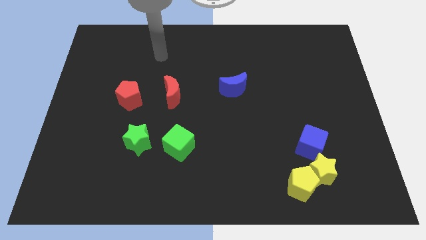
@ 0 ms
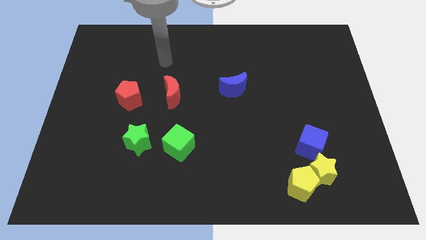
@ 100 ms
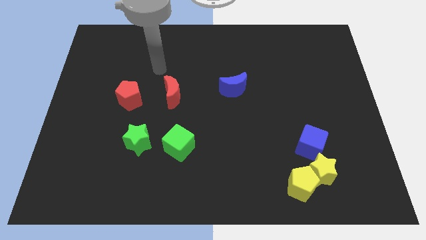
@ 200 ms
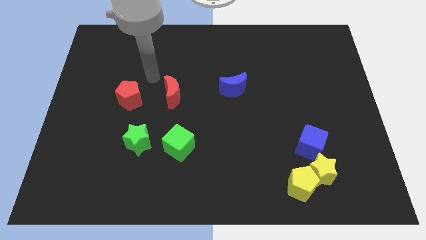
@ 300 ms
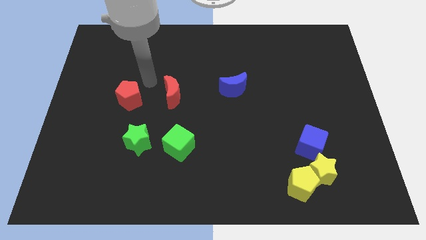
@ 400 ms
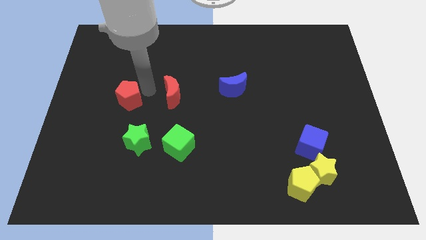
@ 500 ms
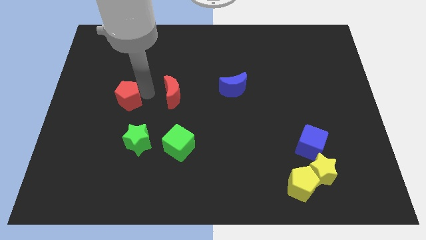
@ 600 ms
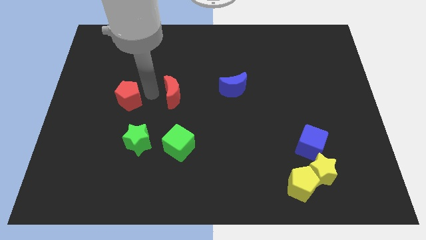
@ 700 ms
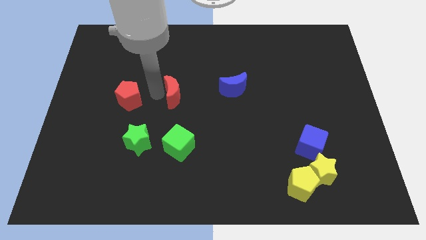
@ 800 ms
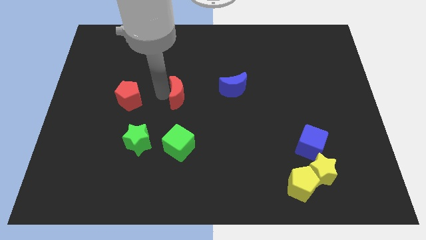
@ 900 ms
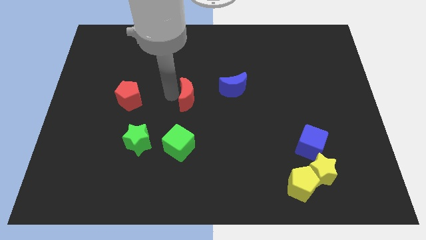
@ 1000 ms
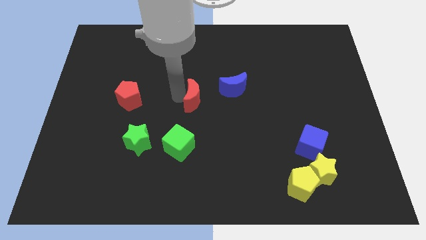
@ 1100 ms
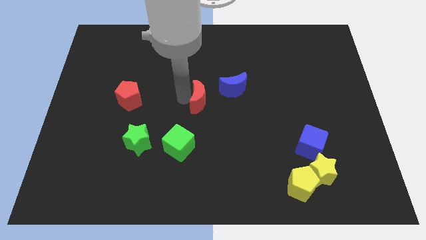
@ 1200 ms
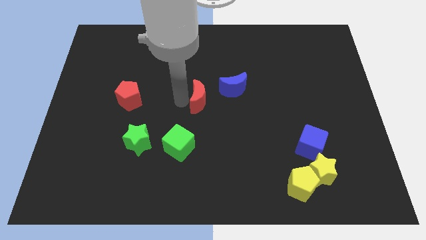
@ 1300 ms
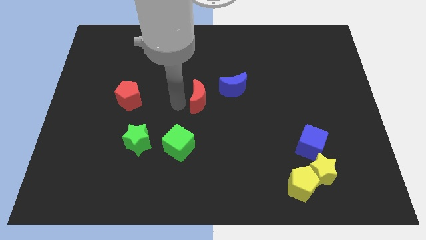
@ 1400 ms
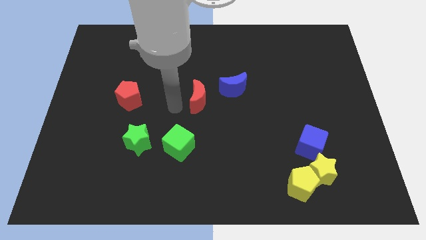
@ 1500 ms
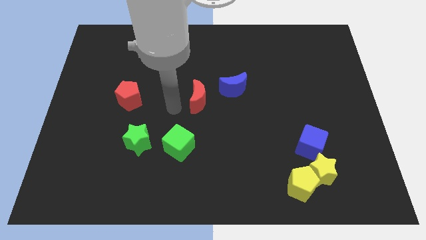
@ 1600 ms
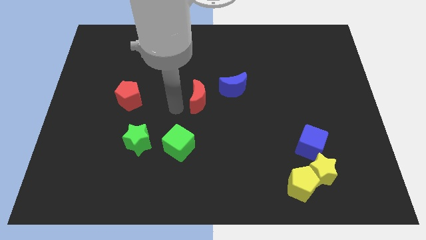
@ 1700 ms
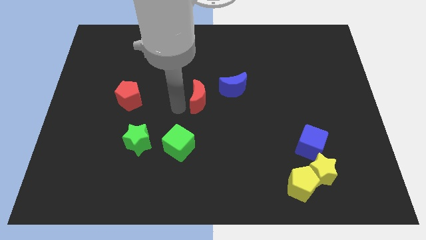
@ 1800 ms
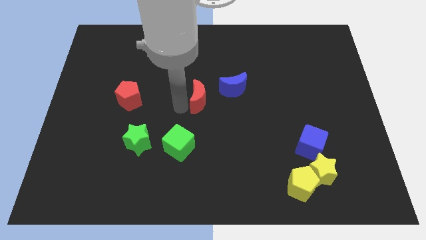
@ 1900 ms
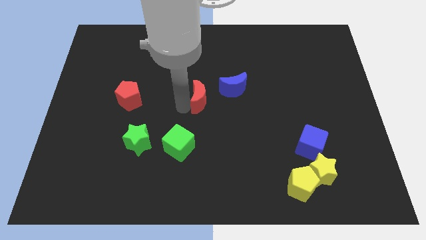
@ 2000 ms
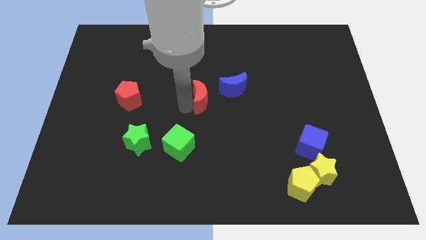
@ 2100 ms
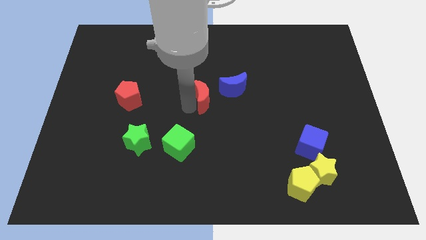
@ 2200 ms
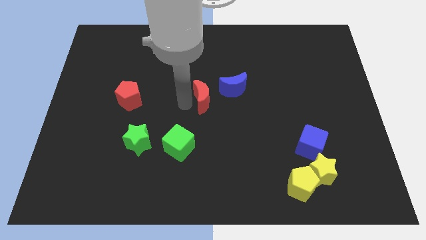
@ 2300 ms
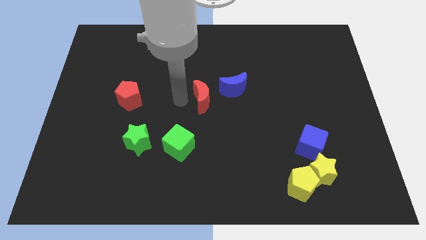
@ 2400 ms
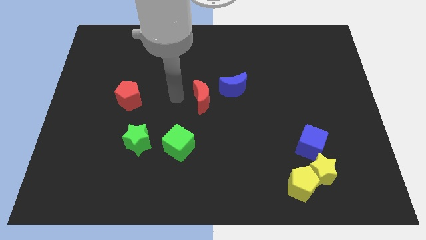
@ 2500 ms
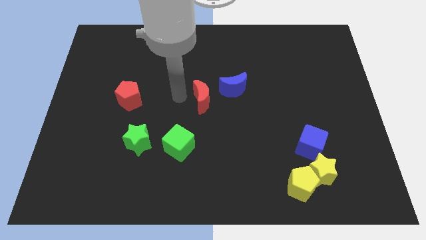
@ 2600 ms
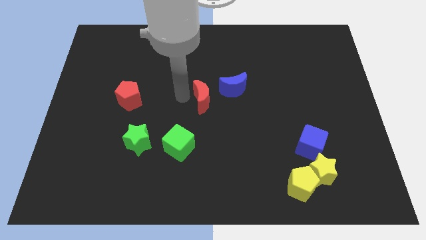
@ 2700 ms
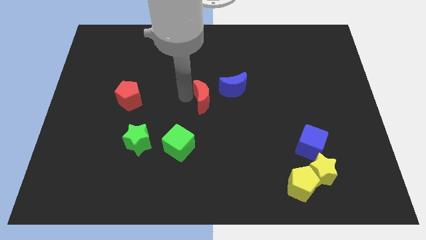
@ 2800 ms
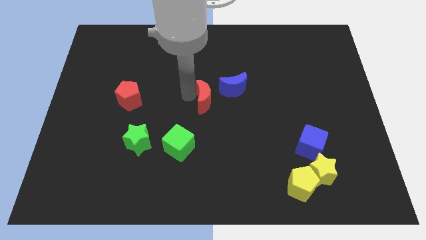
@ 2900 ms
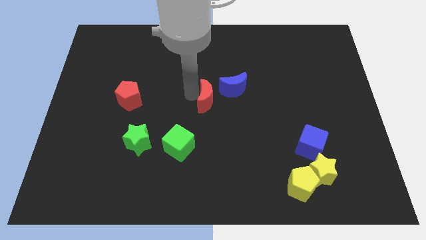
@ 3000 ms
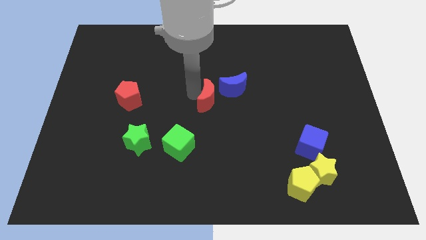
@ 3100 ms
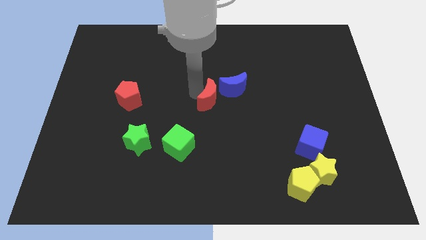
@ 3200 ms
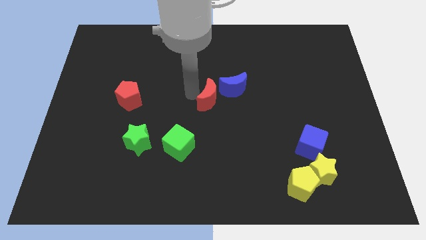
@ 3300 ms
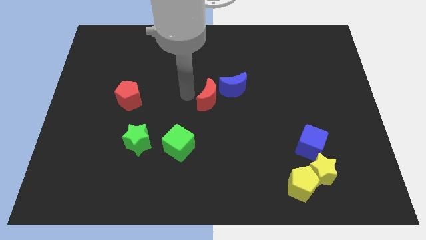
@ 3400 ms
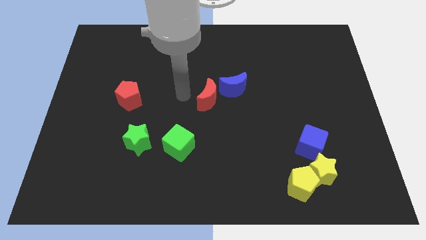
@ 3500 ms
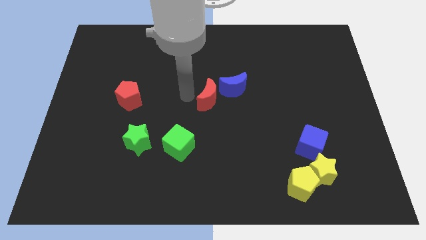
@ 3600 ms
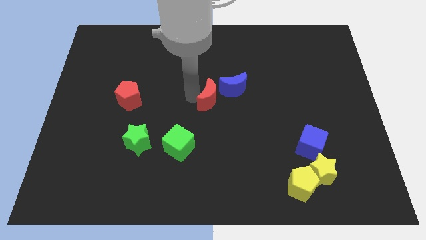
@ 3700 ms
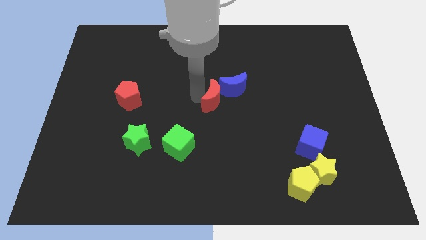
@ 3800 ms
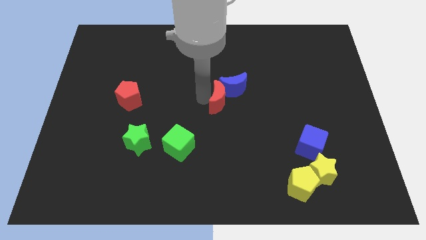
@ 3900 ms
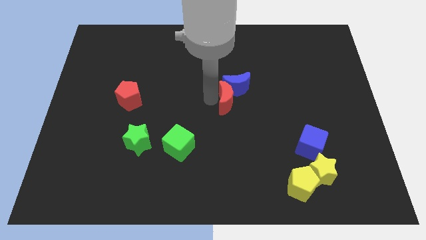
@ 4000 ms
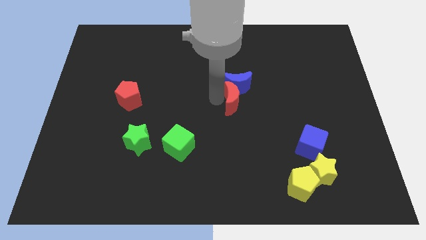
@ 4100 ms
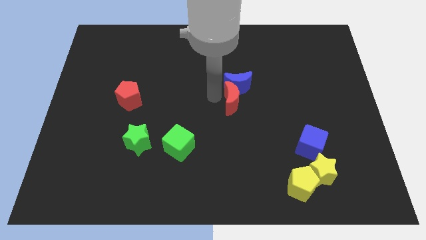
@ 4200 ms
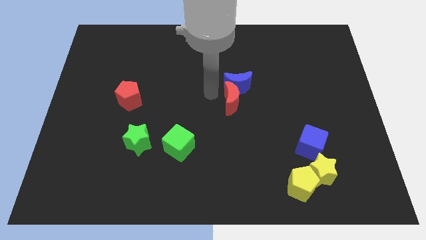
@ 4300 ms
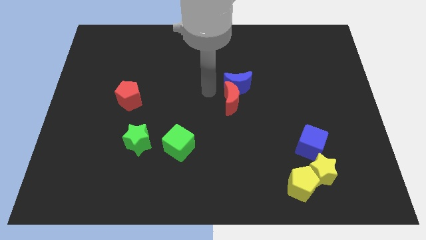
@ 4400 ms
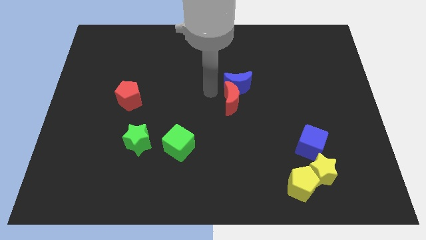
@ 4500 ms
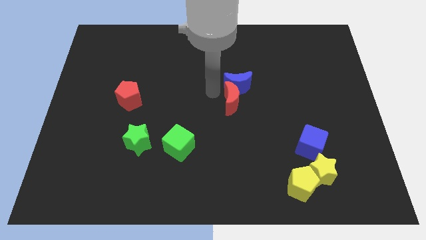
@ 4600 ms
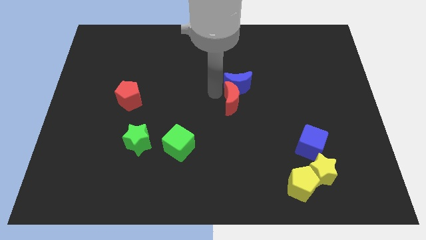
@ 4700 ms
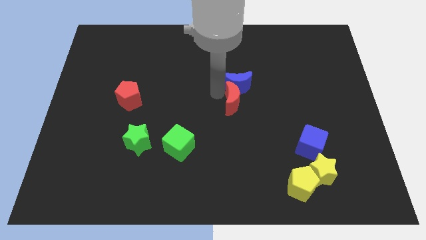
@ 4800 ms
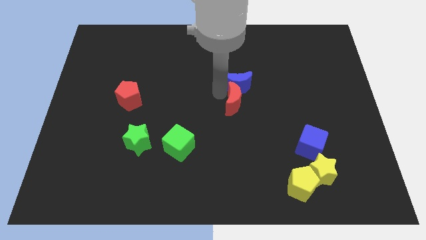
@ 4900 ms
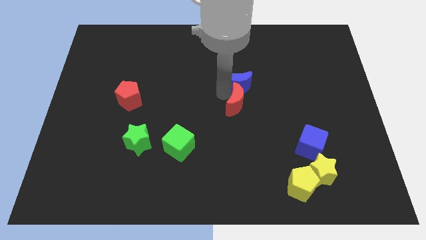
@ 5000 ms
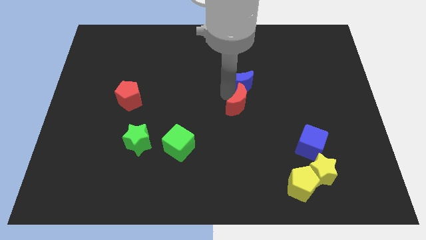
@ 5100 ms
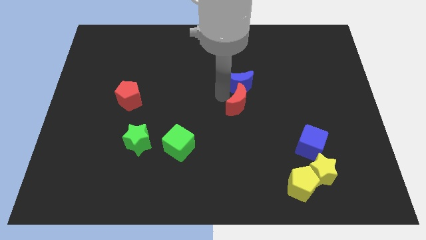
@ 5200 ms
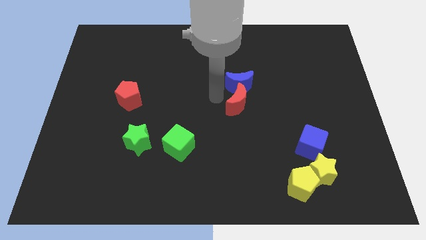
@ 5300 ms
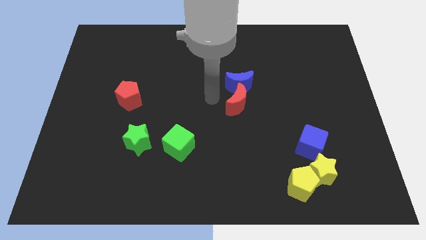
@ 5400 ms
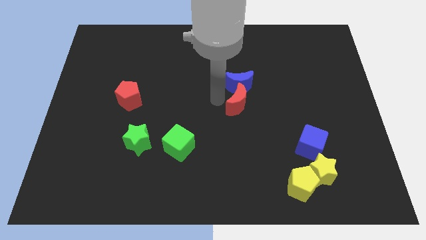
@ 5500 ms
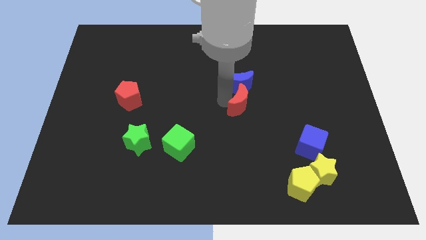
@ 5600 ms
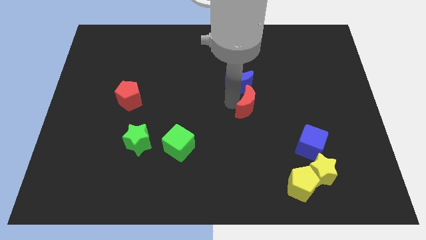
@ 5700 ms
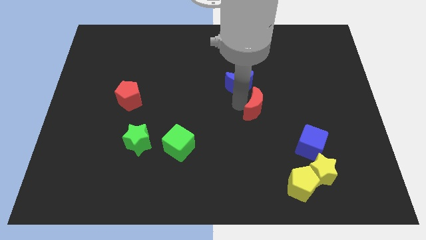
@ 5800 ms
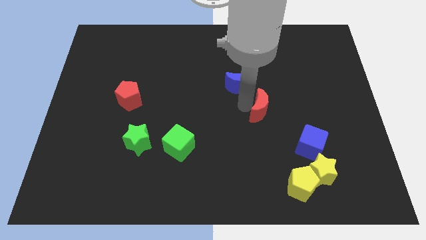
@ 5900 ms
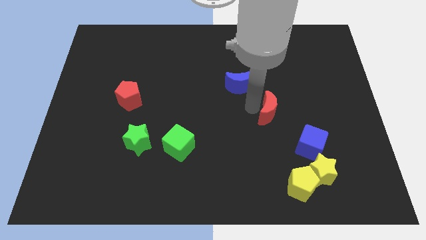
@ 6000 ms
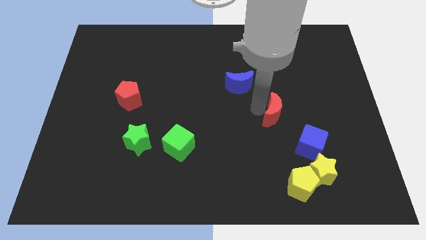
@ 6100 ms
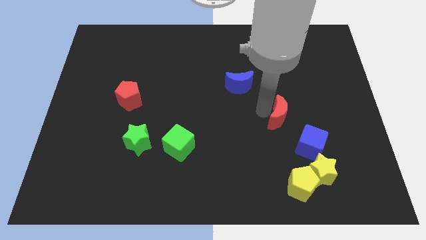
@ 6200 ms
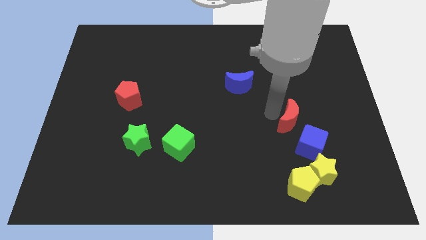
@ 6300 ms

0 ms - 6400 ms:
put the red moon to the top of the yellow star

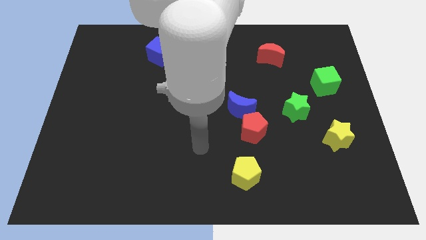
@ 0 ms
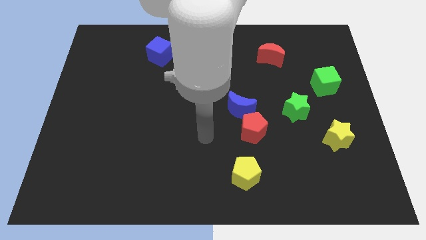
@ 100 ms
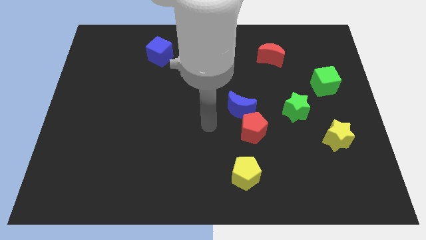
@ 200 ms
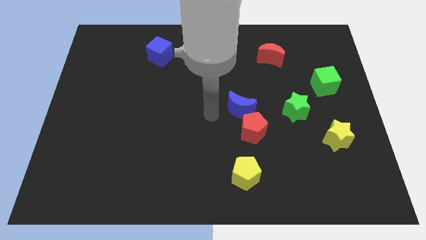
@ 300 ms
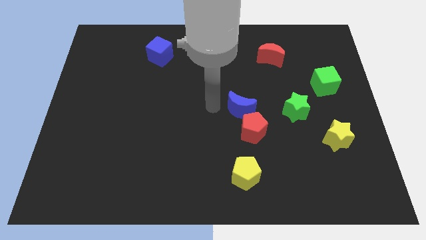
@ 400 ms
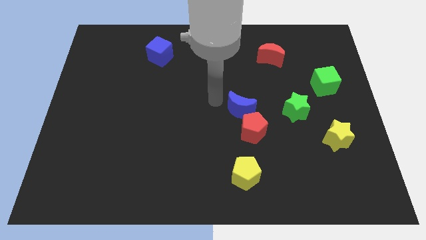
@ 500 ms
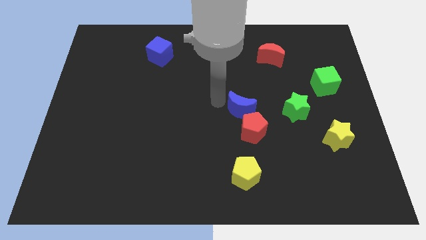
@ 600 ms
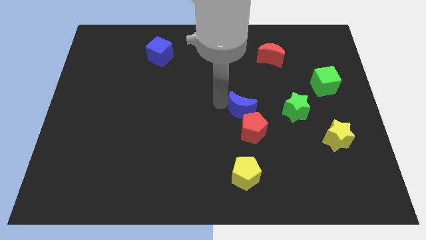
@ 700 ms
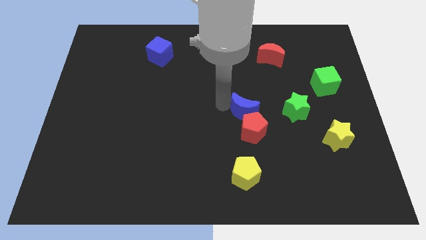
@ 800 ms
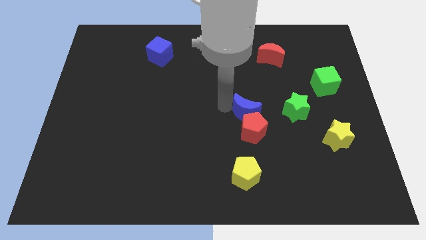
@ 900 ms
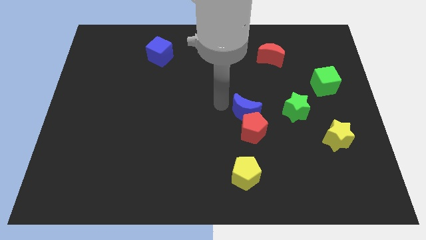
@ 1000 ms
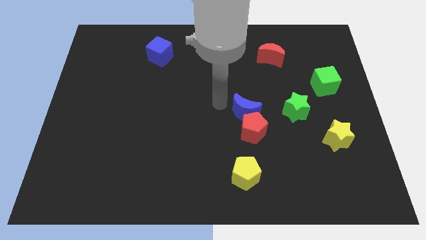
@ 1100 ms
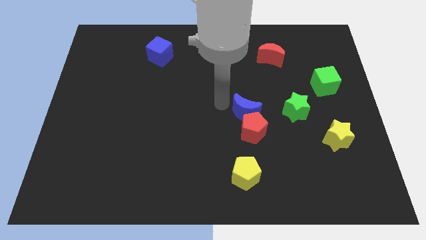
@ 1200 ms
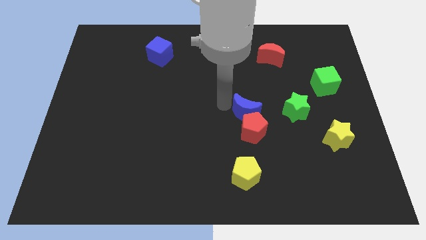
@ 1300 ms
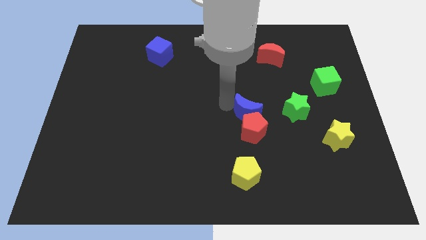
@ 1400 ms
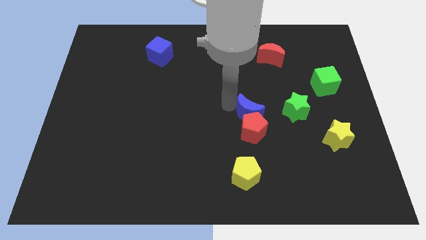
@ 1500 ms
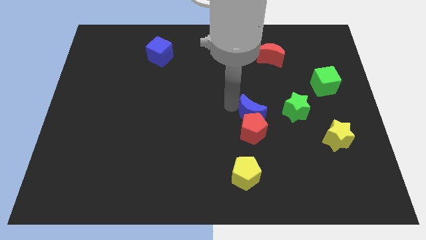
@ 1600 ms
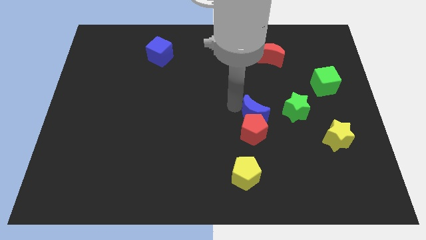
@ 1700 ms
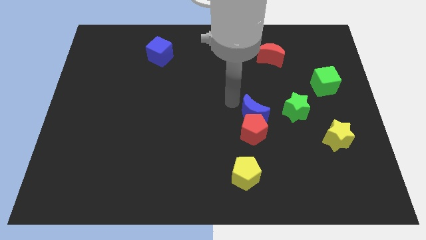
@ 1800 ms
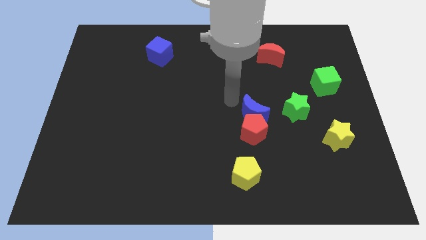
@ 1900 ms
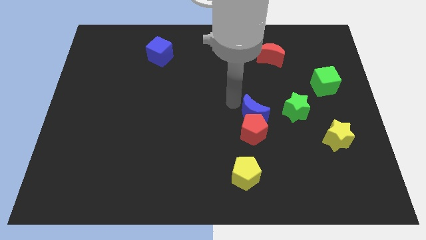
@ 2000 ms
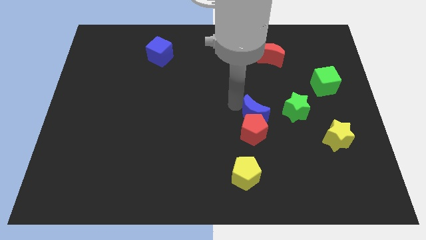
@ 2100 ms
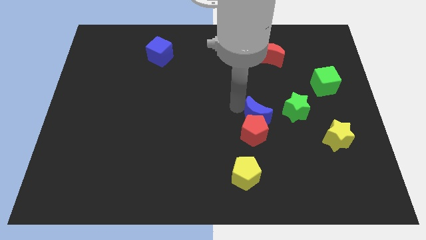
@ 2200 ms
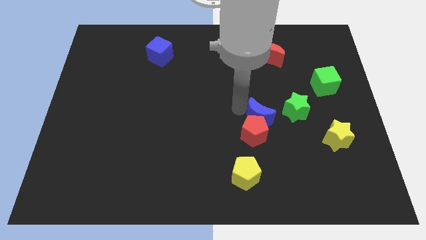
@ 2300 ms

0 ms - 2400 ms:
slide the blue moon diagonally down and to the left of the green star
